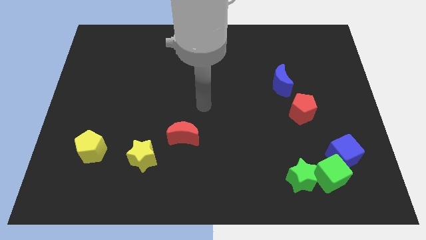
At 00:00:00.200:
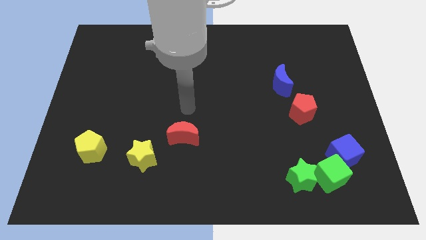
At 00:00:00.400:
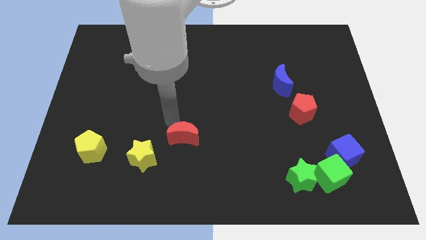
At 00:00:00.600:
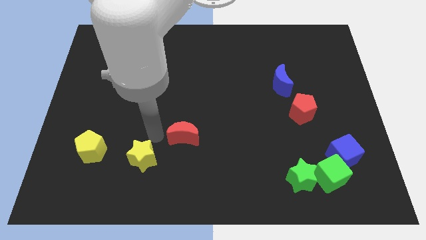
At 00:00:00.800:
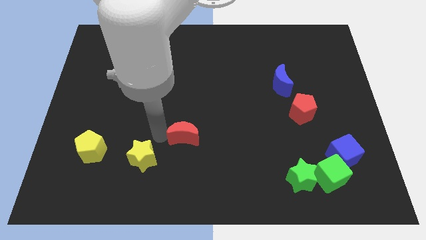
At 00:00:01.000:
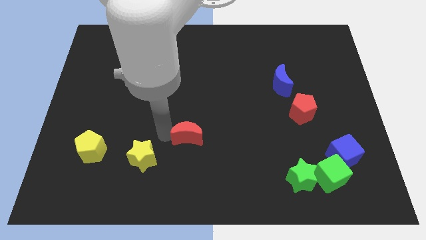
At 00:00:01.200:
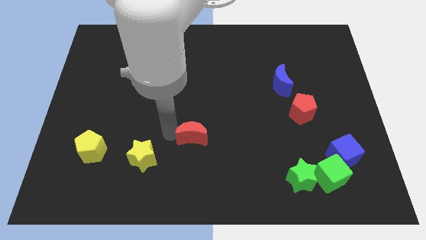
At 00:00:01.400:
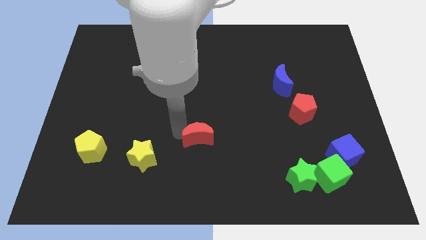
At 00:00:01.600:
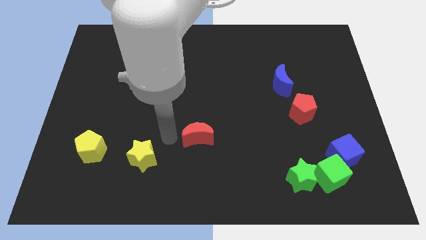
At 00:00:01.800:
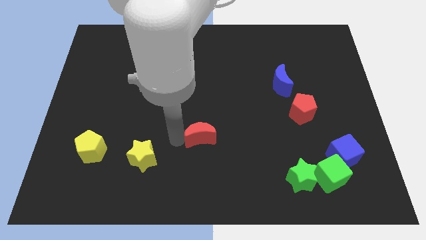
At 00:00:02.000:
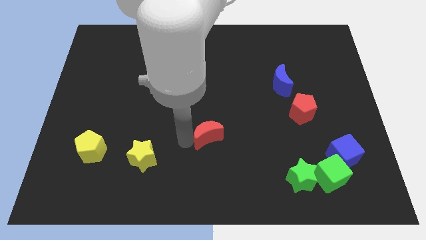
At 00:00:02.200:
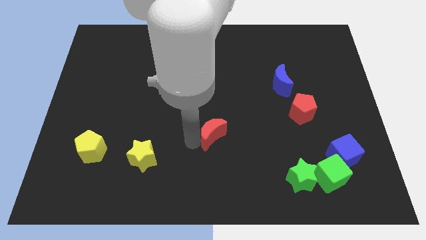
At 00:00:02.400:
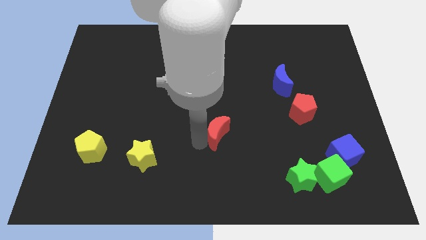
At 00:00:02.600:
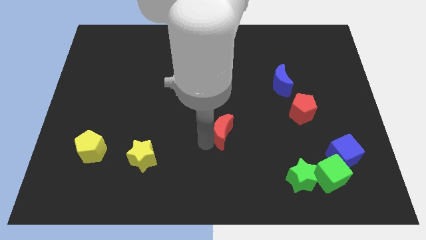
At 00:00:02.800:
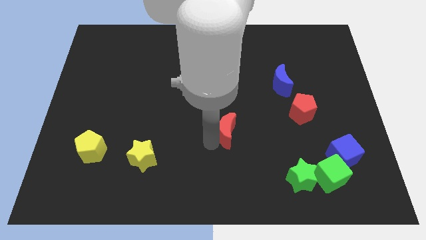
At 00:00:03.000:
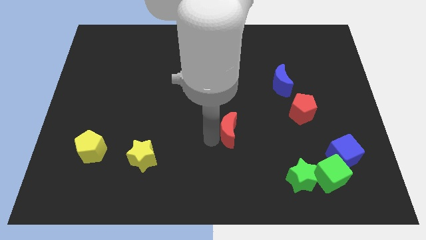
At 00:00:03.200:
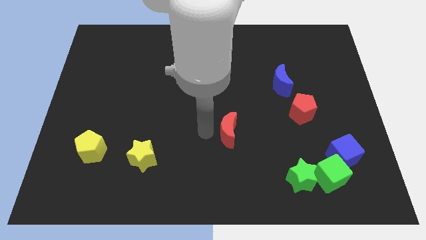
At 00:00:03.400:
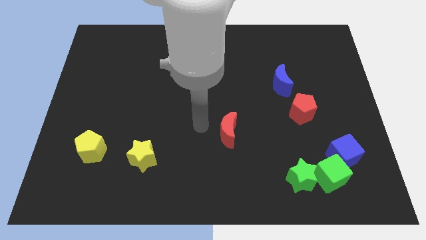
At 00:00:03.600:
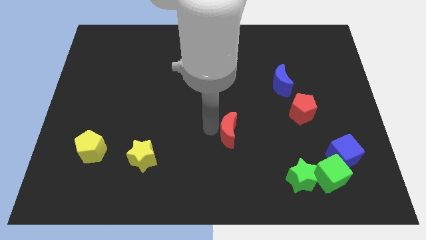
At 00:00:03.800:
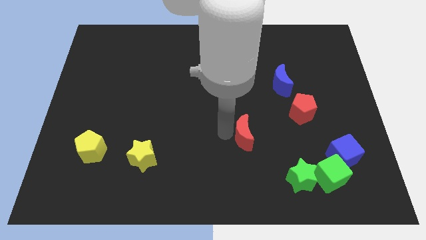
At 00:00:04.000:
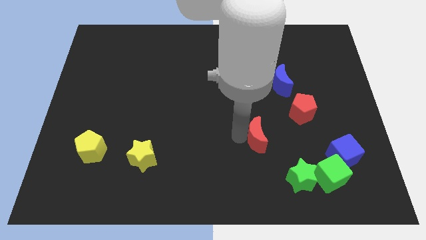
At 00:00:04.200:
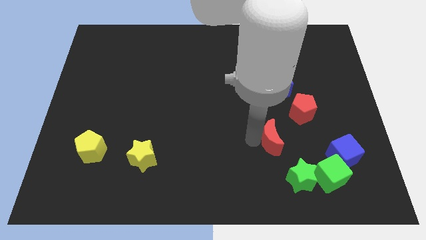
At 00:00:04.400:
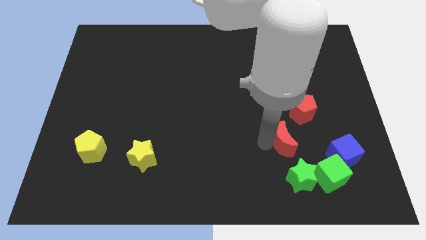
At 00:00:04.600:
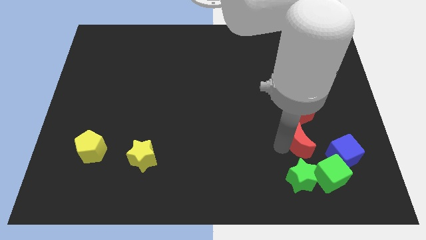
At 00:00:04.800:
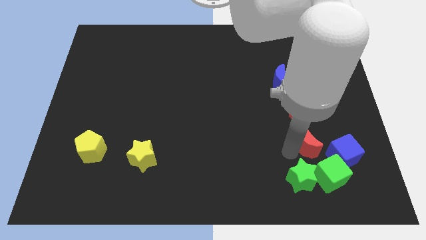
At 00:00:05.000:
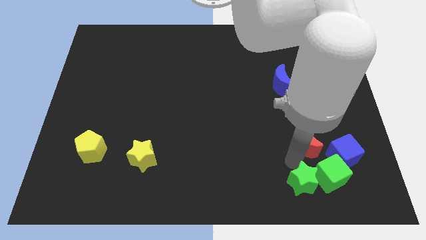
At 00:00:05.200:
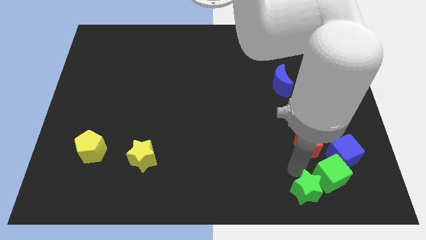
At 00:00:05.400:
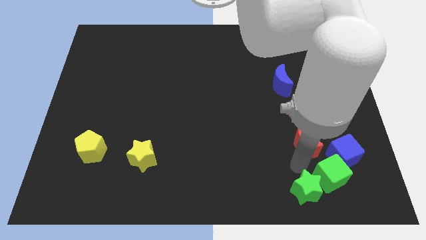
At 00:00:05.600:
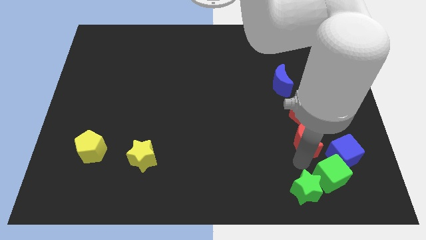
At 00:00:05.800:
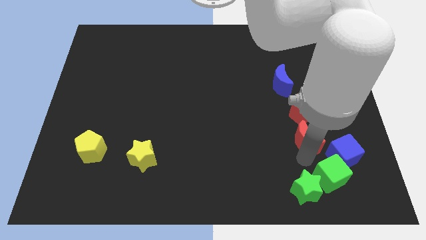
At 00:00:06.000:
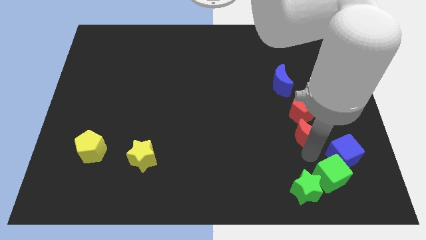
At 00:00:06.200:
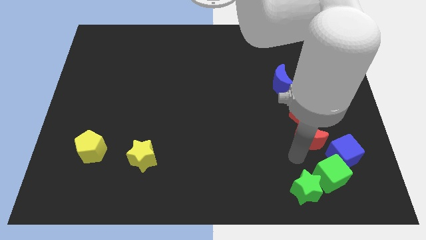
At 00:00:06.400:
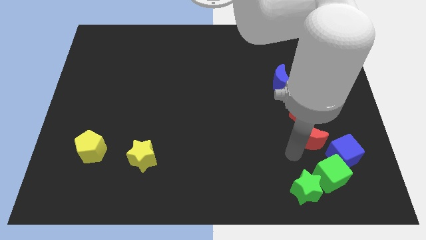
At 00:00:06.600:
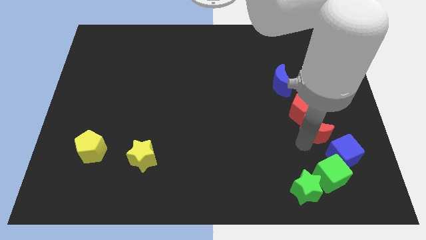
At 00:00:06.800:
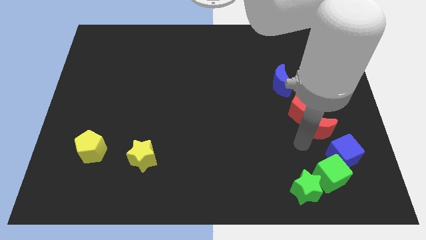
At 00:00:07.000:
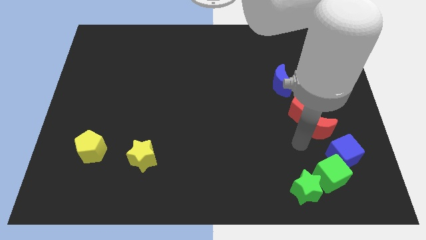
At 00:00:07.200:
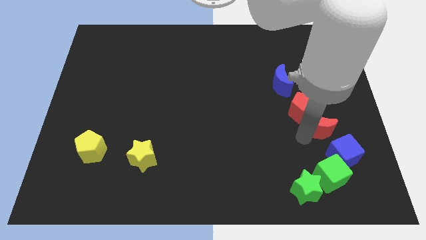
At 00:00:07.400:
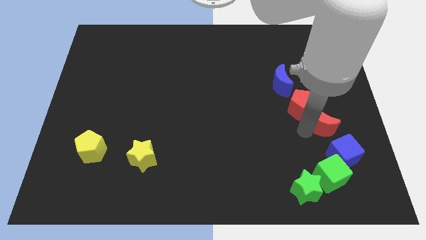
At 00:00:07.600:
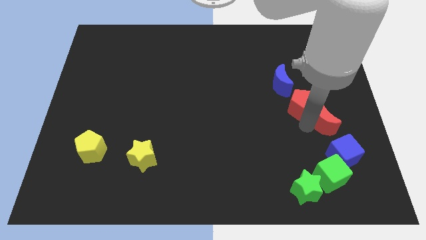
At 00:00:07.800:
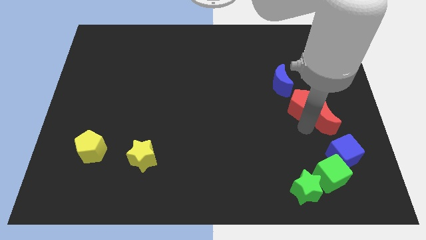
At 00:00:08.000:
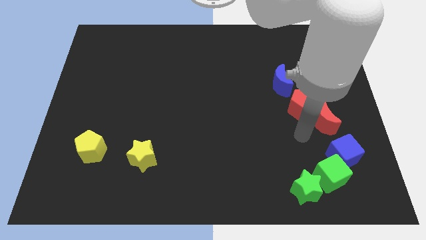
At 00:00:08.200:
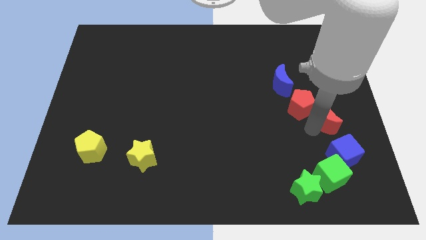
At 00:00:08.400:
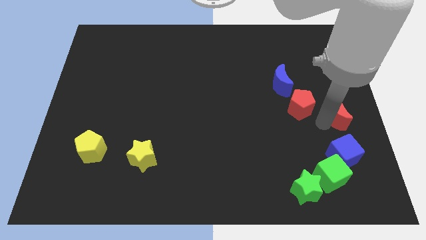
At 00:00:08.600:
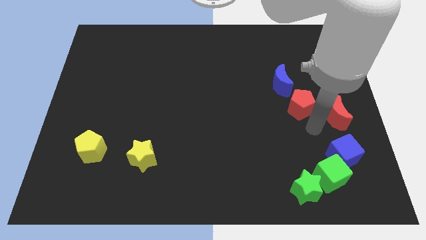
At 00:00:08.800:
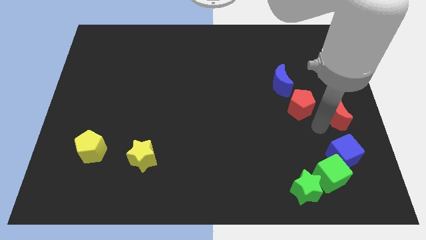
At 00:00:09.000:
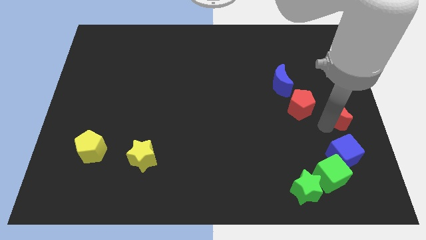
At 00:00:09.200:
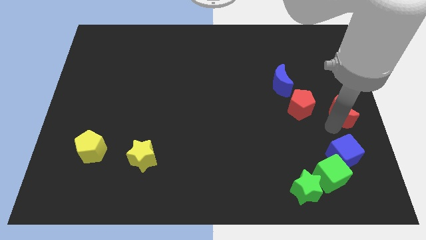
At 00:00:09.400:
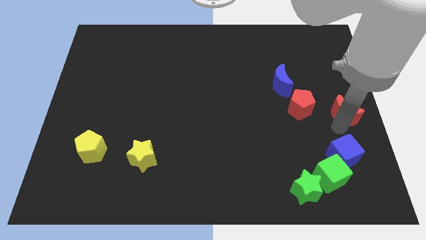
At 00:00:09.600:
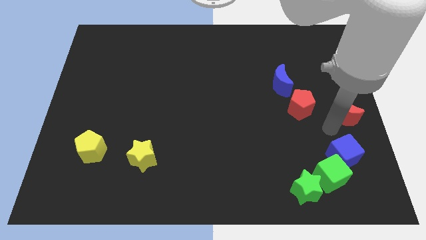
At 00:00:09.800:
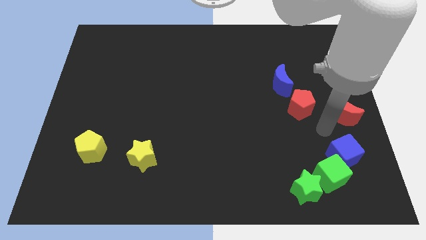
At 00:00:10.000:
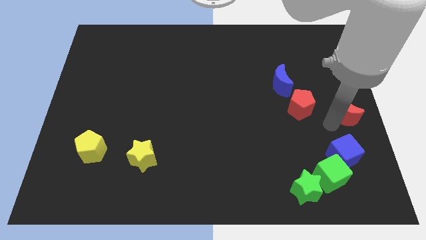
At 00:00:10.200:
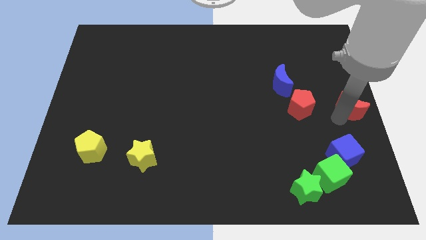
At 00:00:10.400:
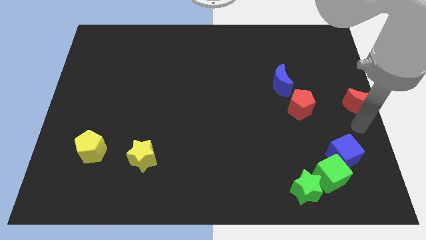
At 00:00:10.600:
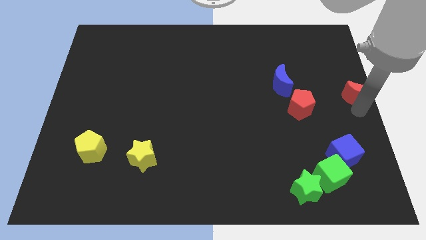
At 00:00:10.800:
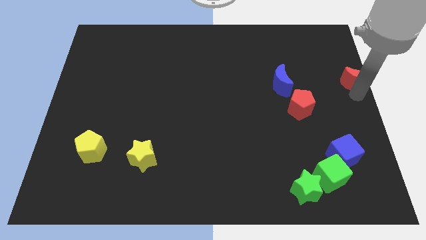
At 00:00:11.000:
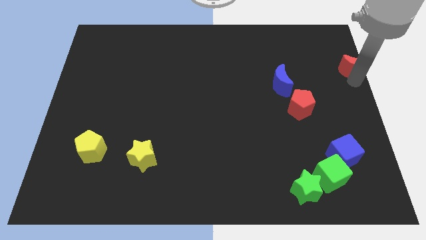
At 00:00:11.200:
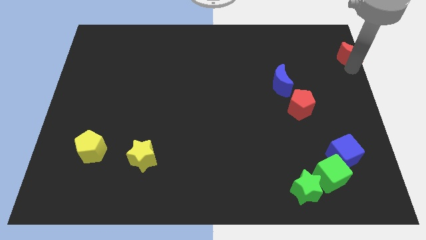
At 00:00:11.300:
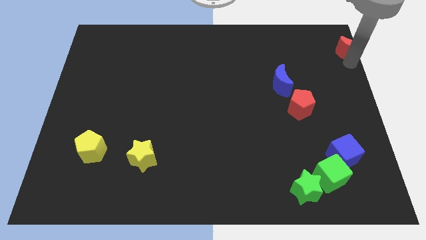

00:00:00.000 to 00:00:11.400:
push the red moon to the top right corner

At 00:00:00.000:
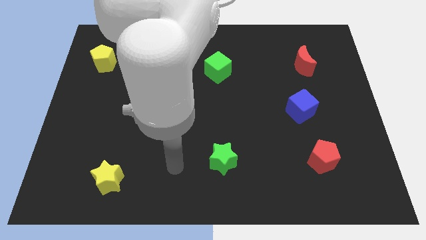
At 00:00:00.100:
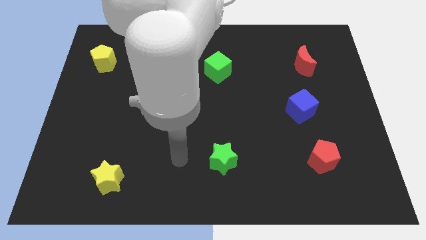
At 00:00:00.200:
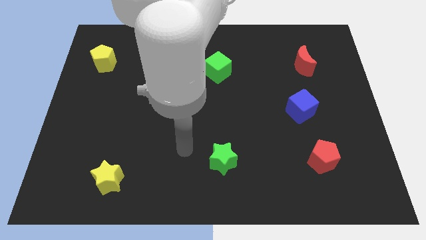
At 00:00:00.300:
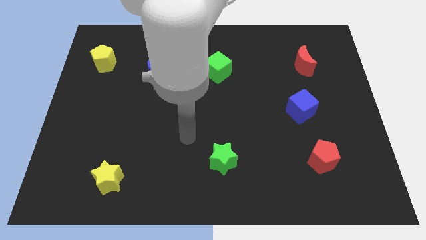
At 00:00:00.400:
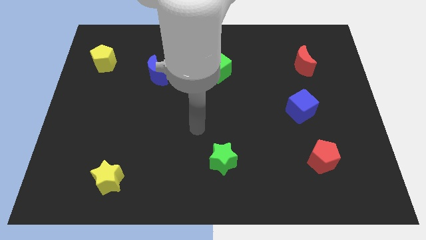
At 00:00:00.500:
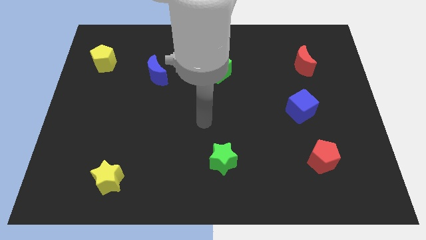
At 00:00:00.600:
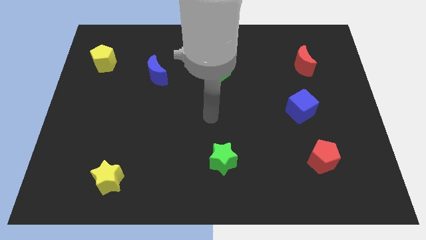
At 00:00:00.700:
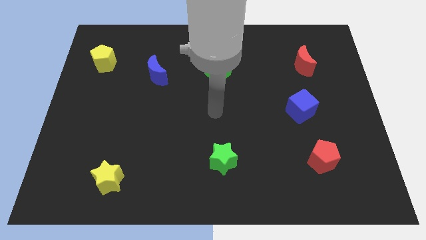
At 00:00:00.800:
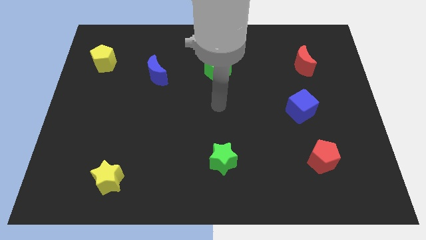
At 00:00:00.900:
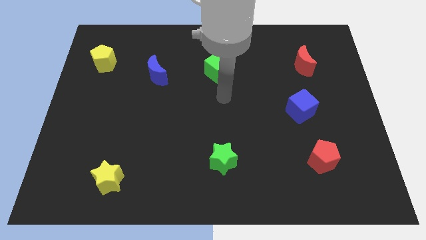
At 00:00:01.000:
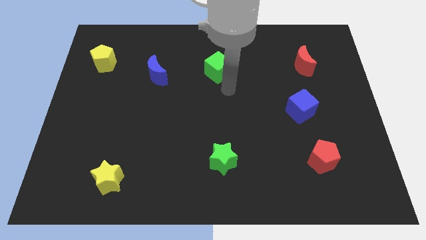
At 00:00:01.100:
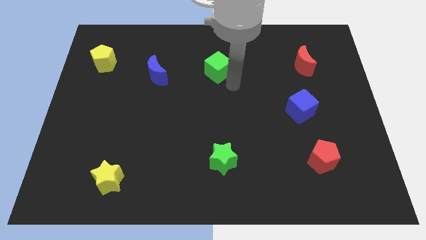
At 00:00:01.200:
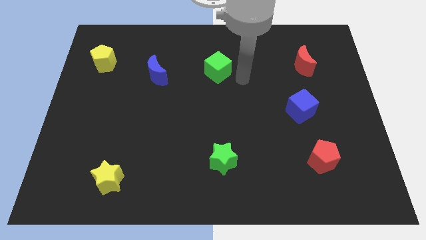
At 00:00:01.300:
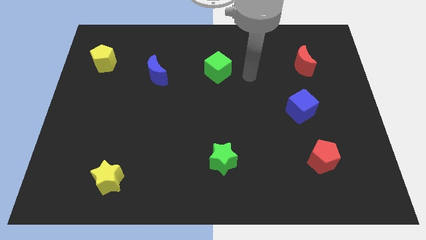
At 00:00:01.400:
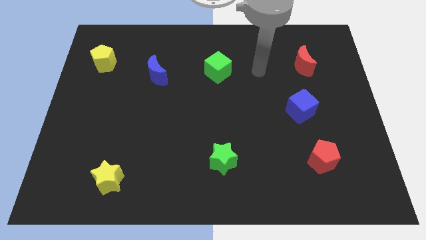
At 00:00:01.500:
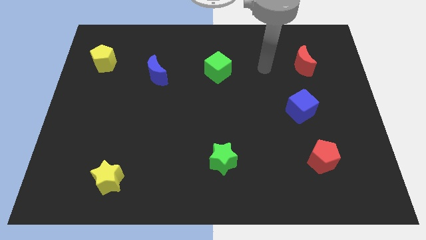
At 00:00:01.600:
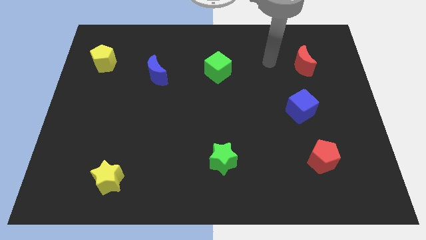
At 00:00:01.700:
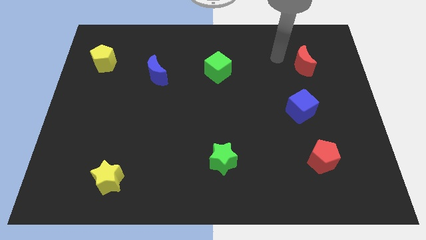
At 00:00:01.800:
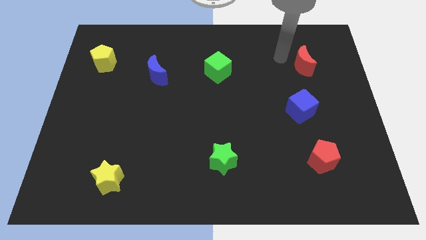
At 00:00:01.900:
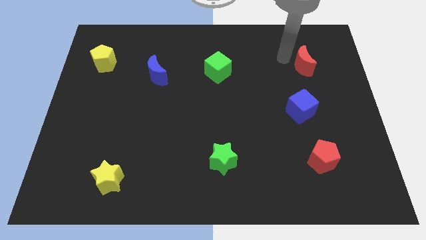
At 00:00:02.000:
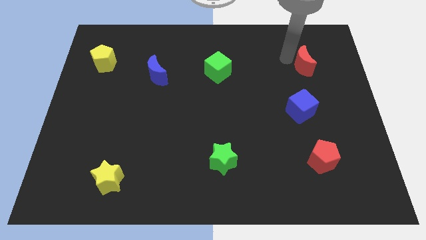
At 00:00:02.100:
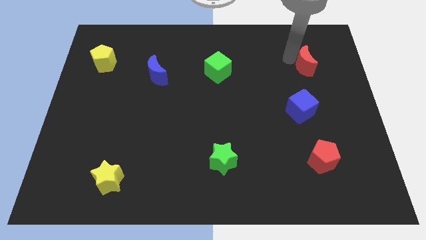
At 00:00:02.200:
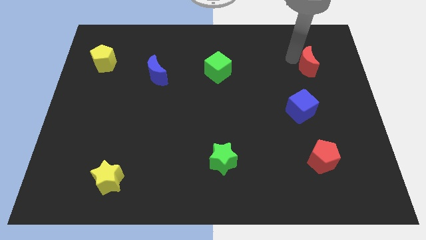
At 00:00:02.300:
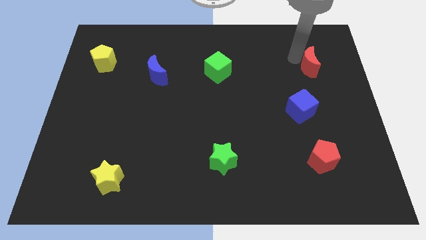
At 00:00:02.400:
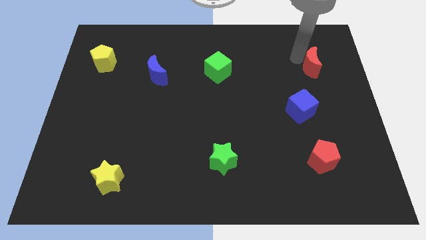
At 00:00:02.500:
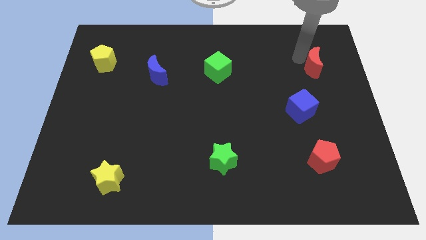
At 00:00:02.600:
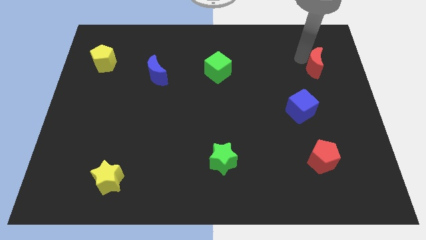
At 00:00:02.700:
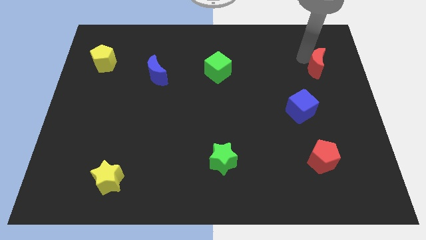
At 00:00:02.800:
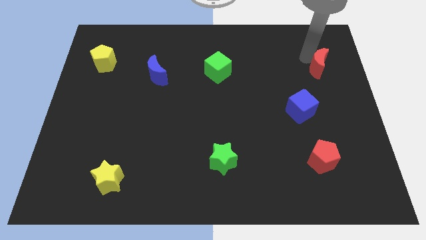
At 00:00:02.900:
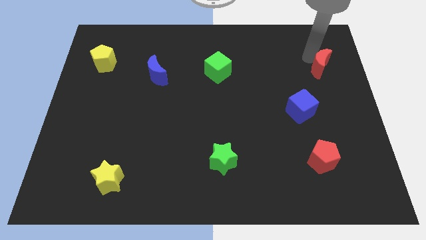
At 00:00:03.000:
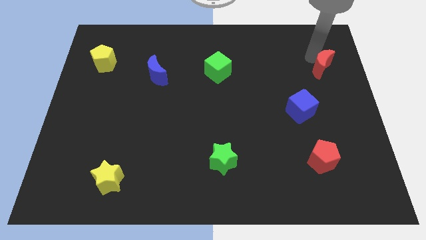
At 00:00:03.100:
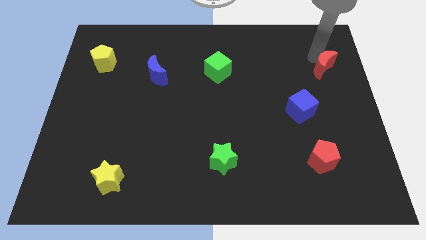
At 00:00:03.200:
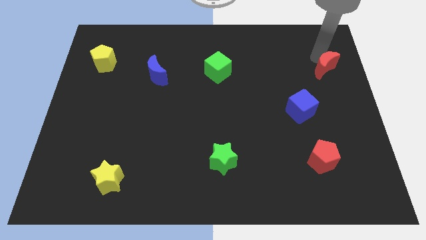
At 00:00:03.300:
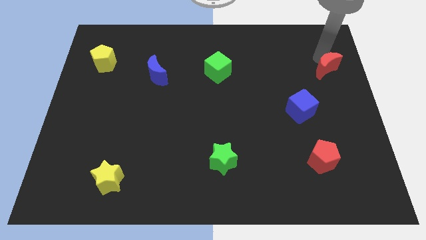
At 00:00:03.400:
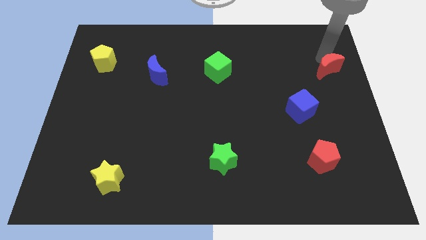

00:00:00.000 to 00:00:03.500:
move the red moon to the right side
